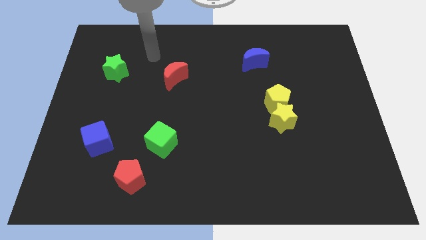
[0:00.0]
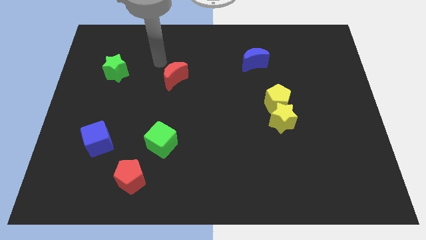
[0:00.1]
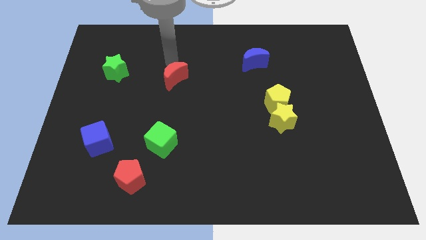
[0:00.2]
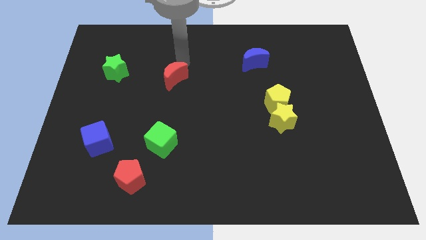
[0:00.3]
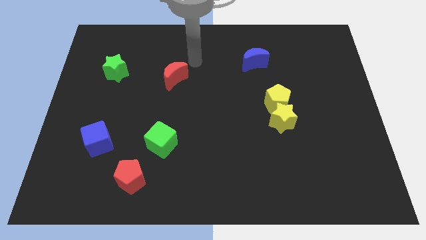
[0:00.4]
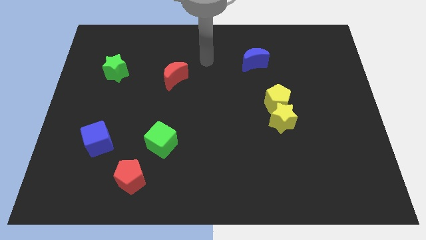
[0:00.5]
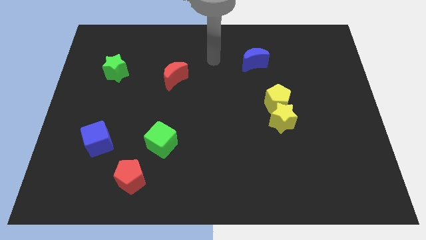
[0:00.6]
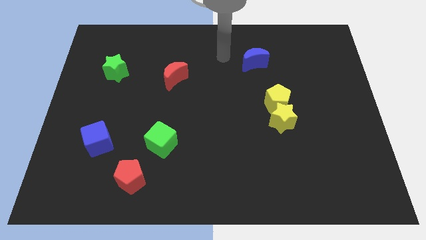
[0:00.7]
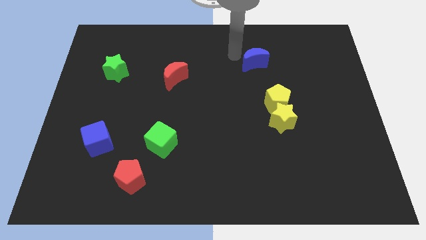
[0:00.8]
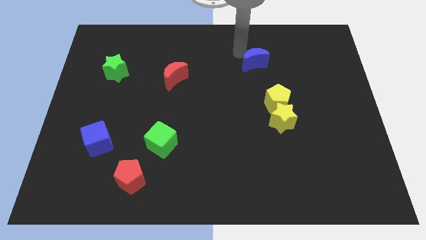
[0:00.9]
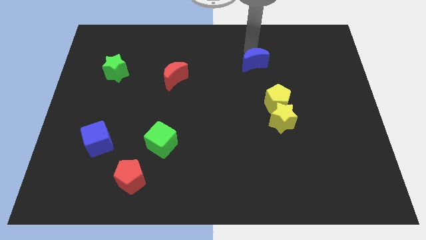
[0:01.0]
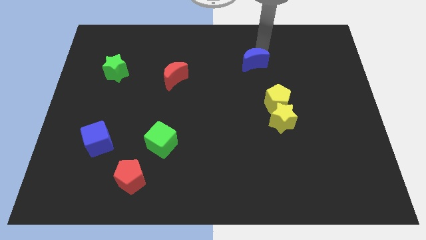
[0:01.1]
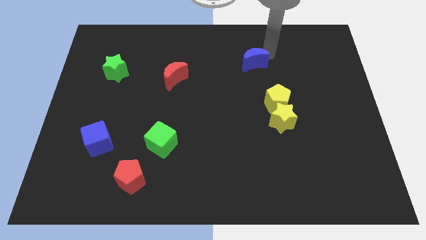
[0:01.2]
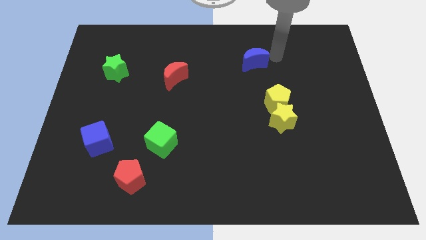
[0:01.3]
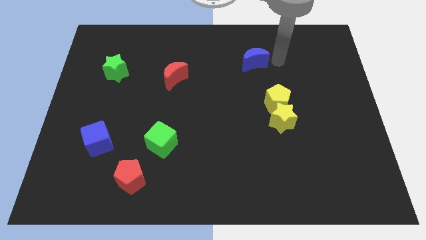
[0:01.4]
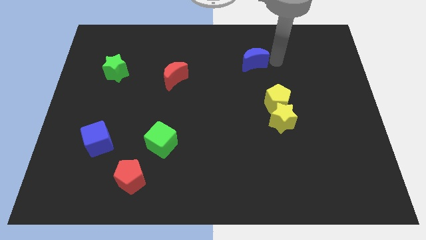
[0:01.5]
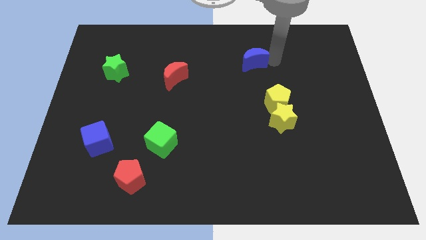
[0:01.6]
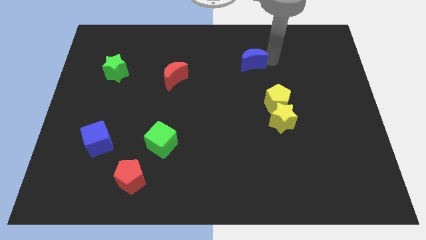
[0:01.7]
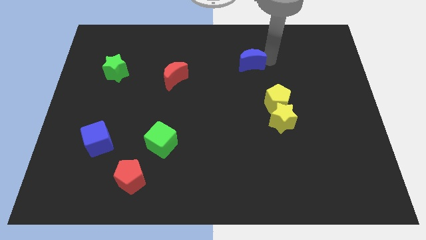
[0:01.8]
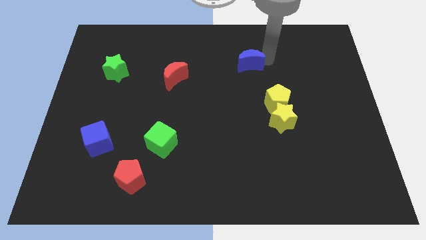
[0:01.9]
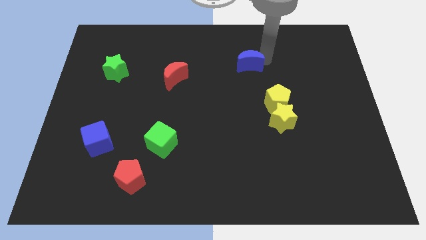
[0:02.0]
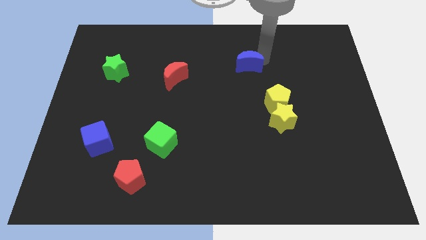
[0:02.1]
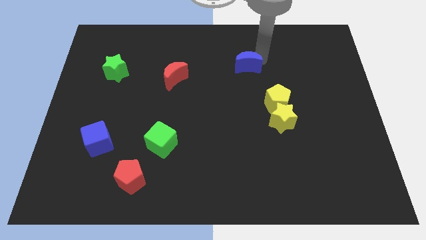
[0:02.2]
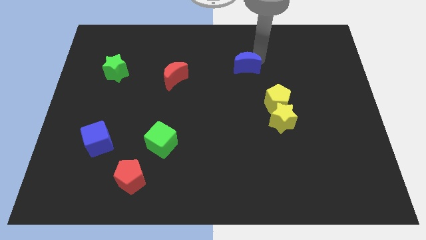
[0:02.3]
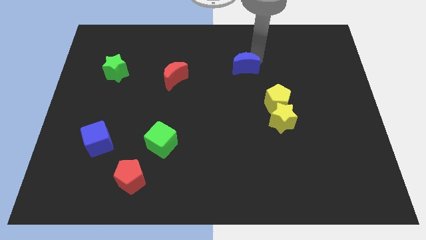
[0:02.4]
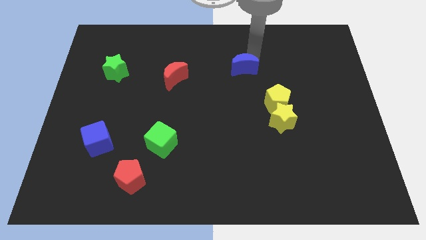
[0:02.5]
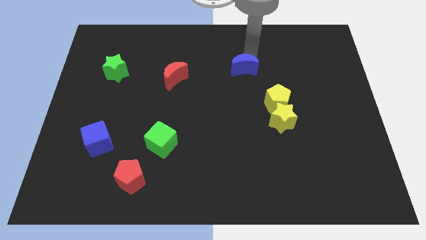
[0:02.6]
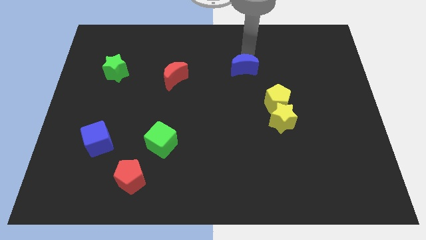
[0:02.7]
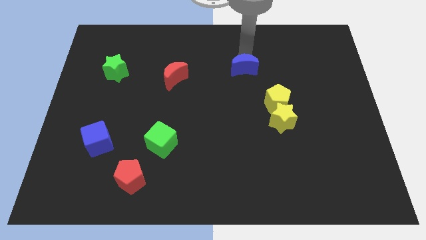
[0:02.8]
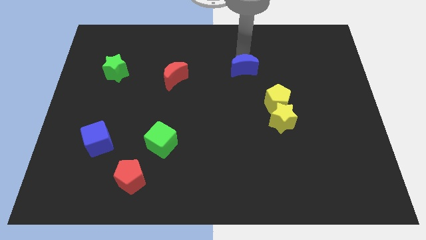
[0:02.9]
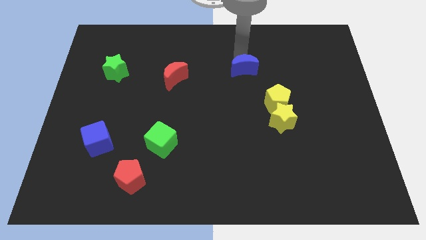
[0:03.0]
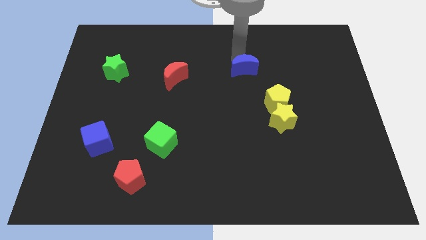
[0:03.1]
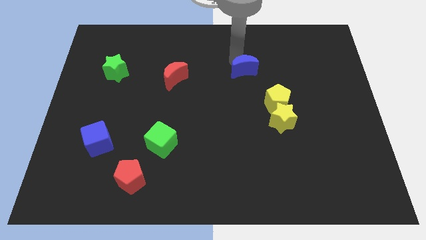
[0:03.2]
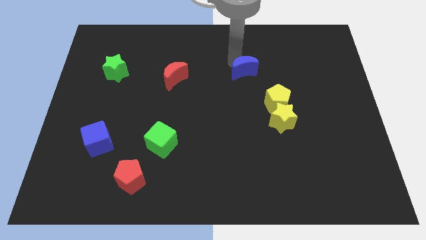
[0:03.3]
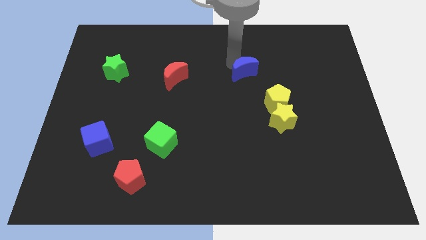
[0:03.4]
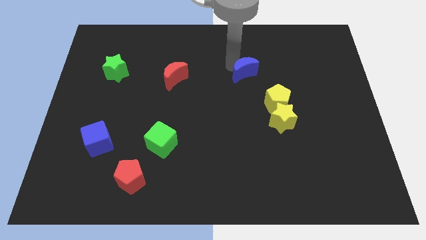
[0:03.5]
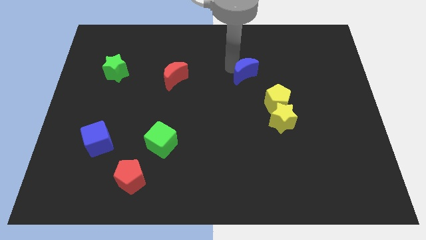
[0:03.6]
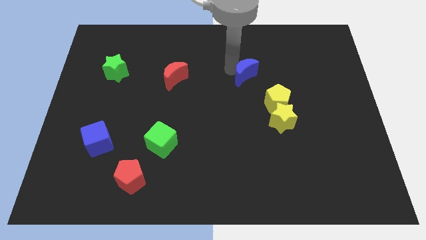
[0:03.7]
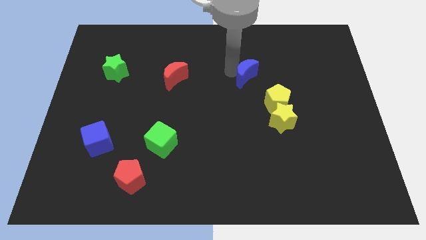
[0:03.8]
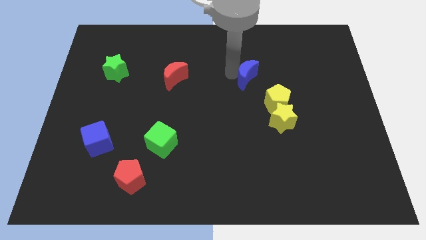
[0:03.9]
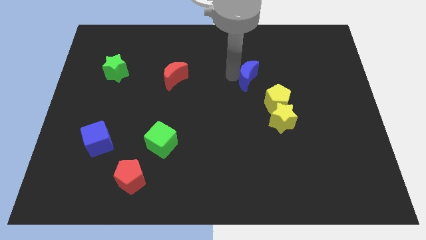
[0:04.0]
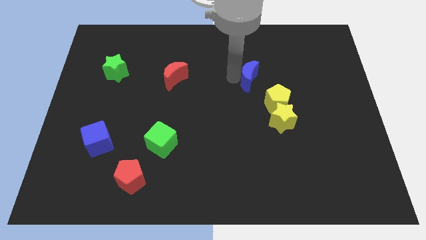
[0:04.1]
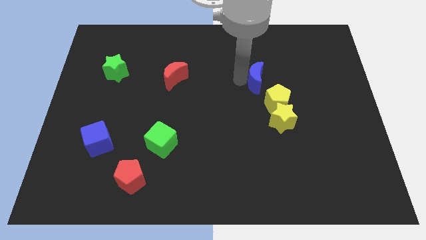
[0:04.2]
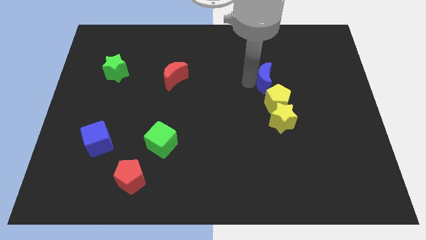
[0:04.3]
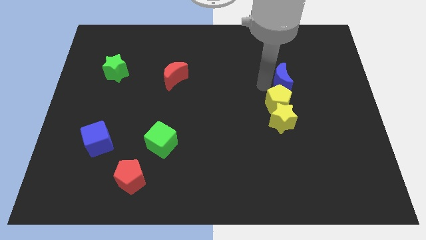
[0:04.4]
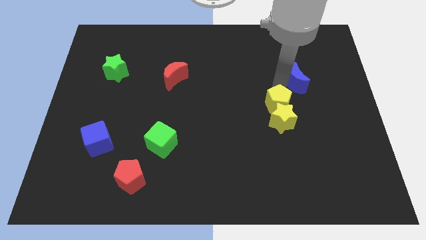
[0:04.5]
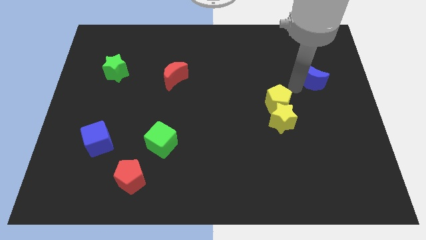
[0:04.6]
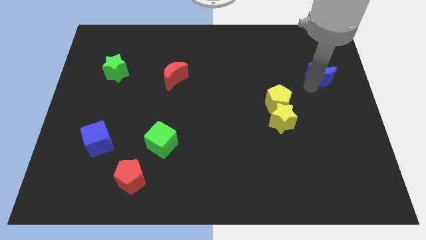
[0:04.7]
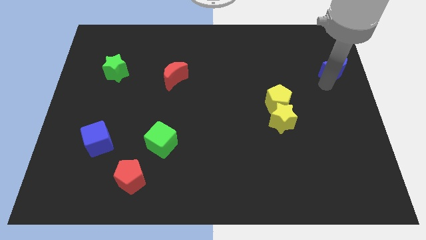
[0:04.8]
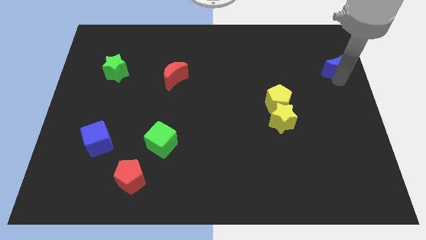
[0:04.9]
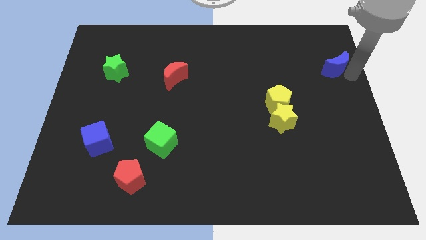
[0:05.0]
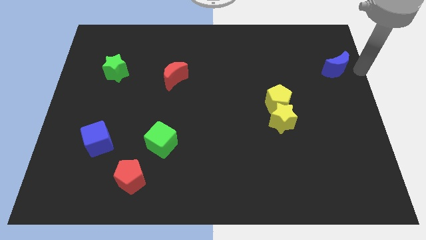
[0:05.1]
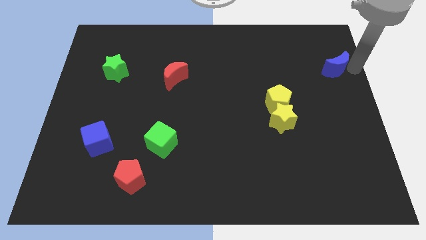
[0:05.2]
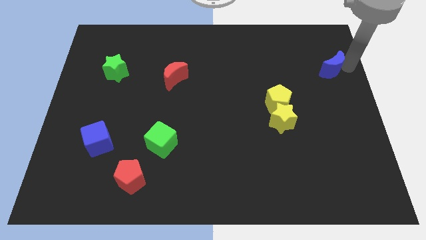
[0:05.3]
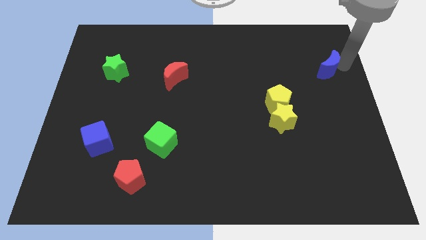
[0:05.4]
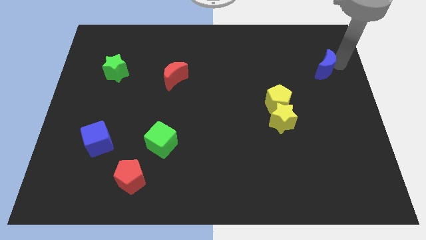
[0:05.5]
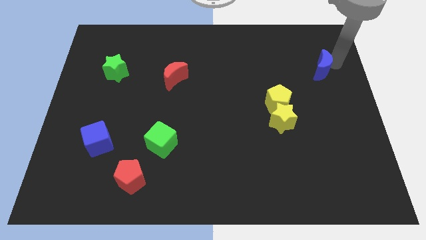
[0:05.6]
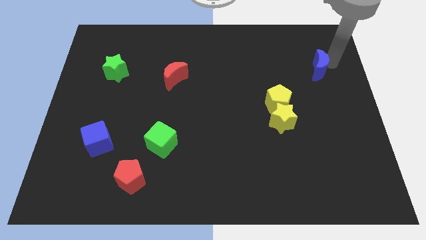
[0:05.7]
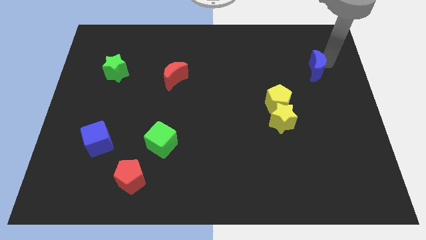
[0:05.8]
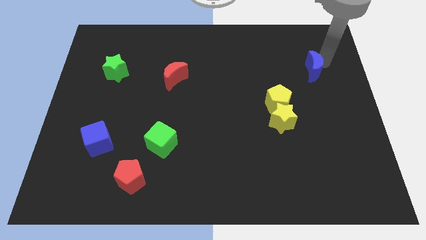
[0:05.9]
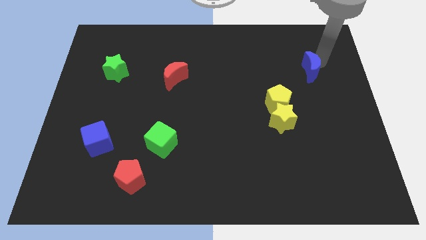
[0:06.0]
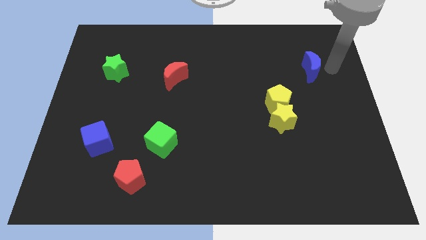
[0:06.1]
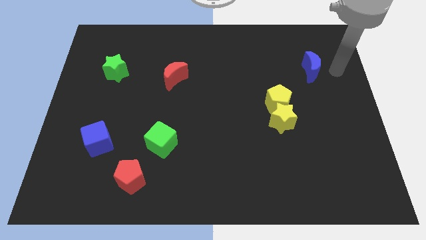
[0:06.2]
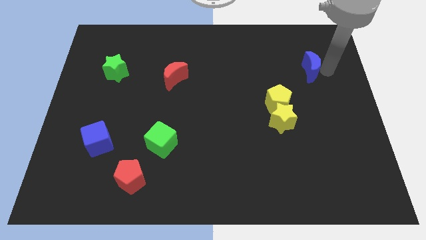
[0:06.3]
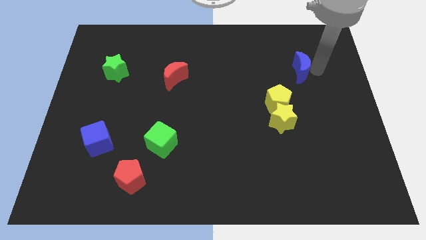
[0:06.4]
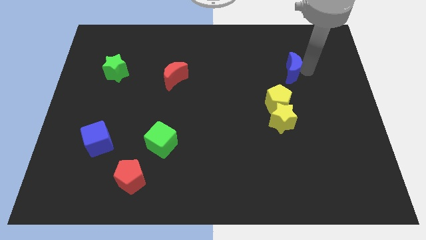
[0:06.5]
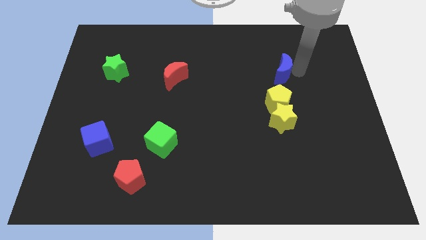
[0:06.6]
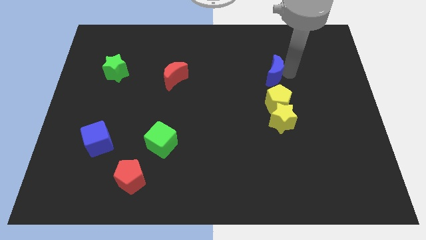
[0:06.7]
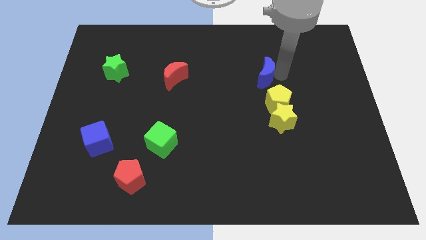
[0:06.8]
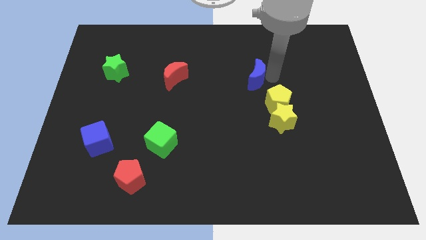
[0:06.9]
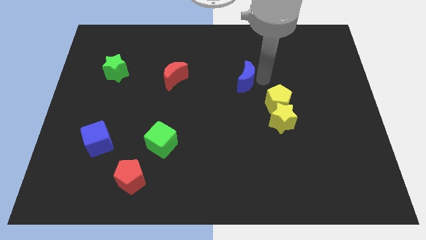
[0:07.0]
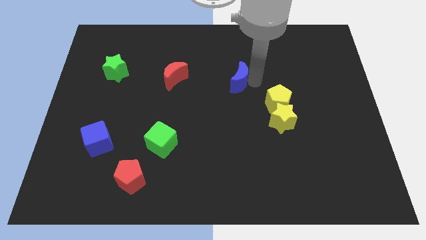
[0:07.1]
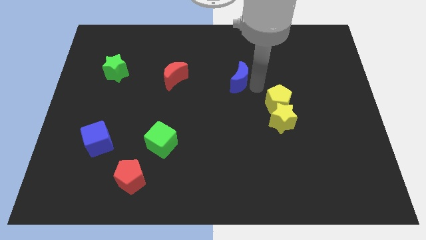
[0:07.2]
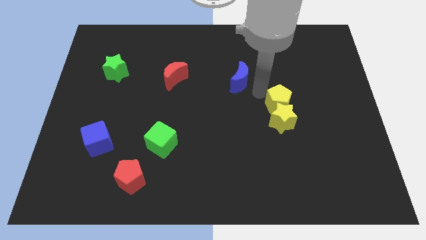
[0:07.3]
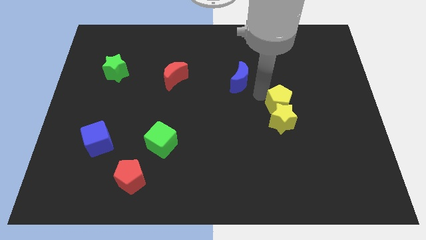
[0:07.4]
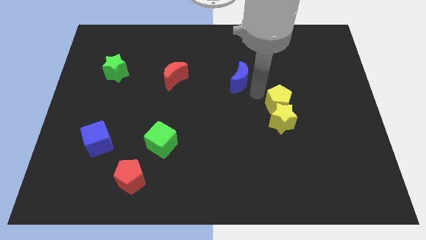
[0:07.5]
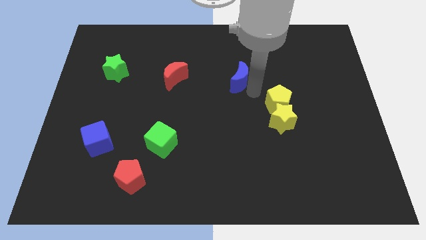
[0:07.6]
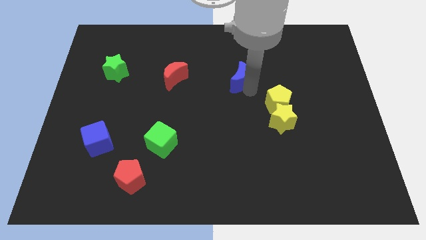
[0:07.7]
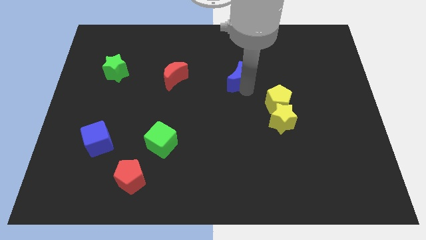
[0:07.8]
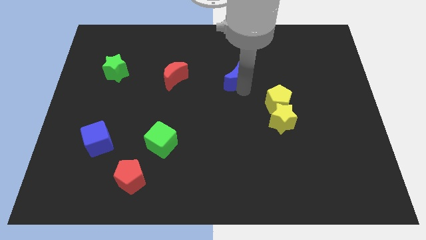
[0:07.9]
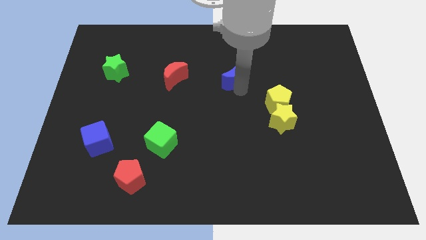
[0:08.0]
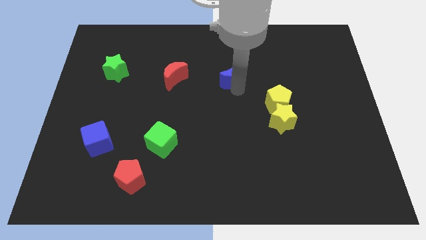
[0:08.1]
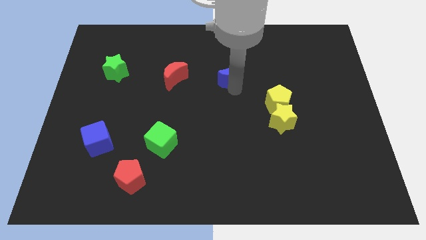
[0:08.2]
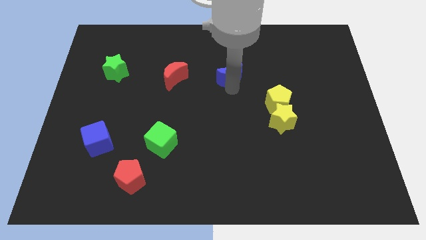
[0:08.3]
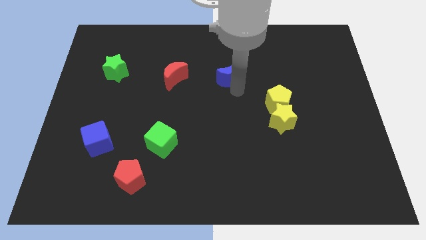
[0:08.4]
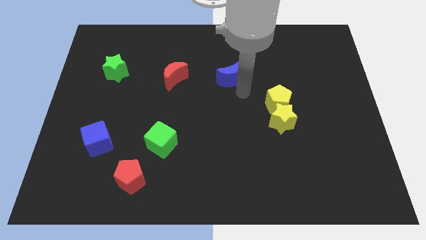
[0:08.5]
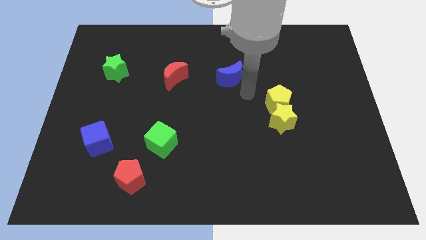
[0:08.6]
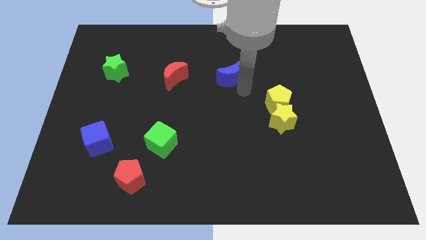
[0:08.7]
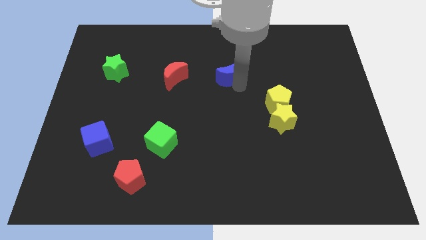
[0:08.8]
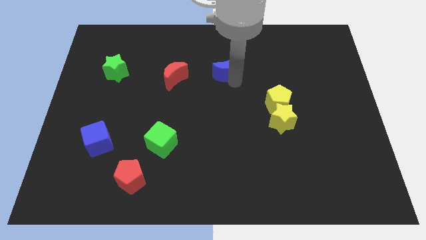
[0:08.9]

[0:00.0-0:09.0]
move the blue moon a bit left
